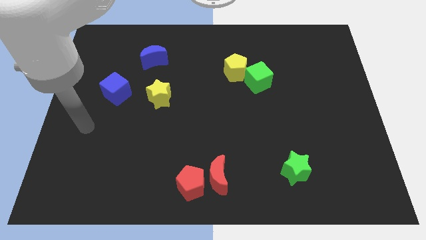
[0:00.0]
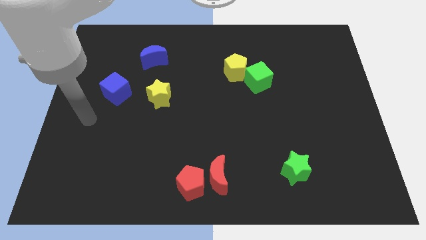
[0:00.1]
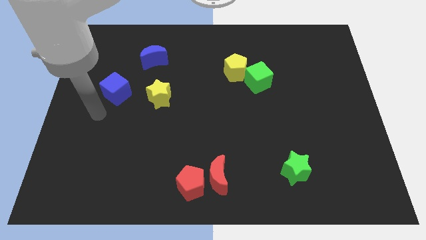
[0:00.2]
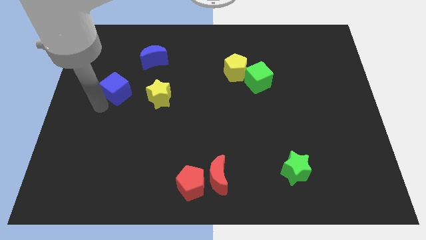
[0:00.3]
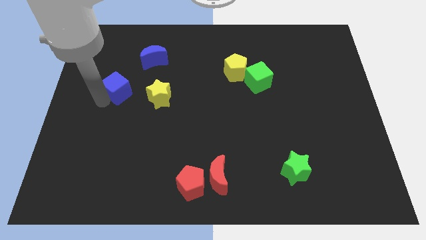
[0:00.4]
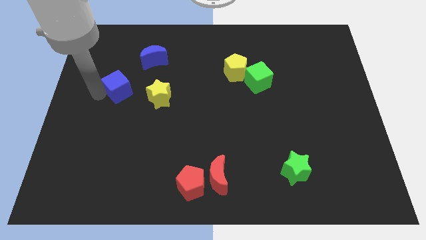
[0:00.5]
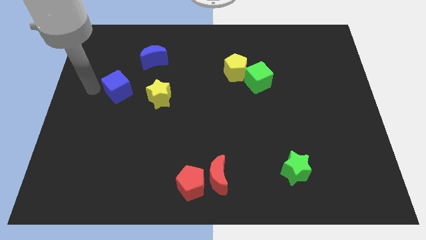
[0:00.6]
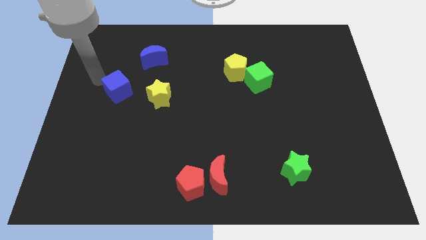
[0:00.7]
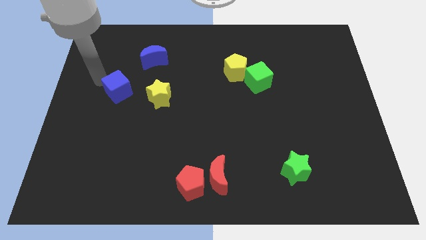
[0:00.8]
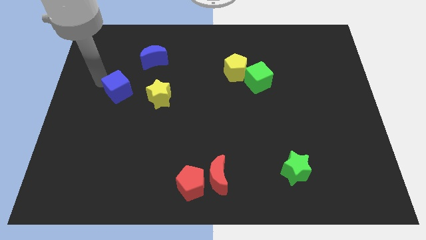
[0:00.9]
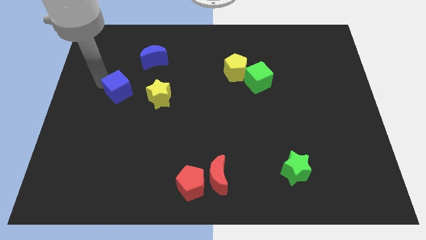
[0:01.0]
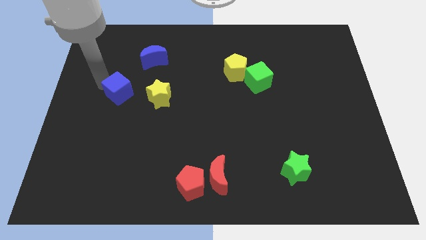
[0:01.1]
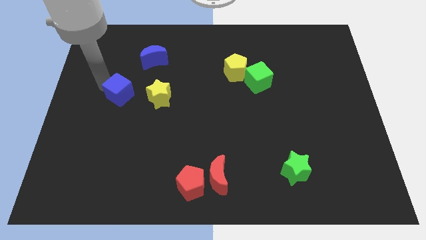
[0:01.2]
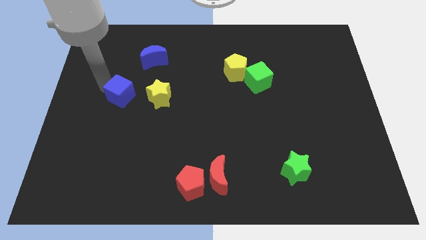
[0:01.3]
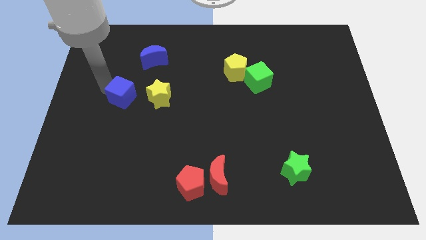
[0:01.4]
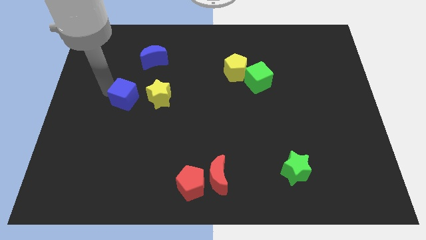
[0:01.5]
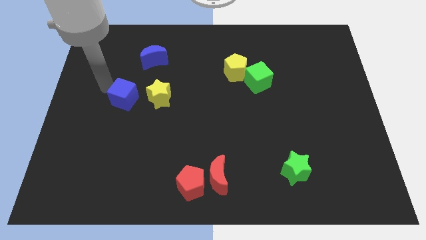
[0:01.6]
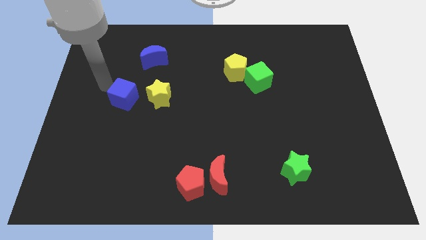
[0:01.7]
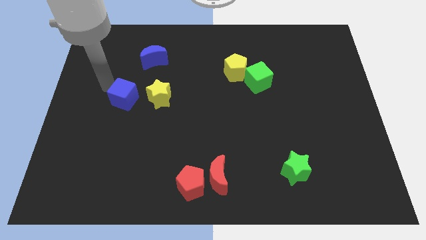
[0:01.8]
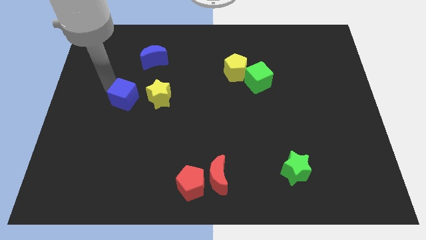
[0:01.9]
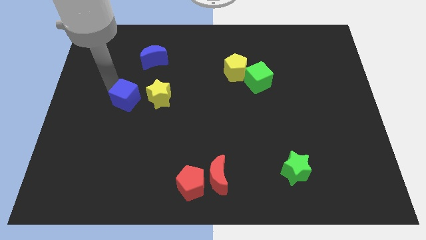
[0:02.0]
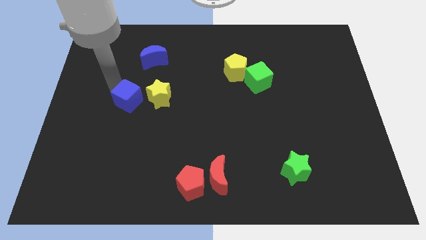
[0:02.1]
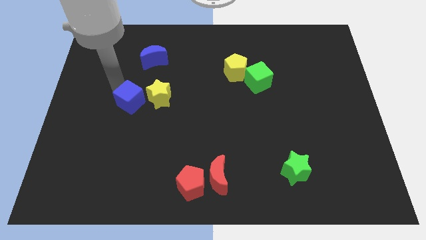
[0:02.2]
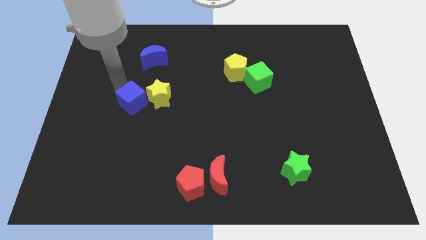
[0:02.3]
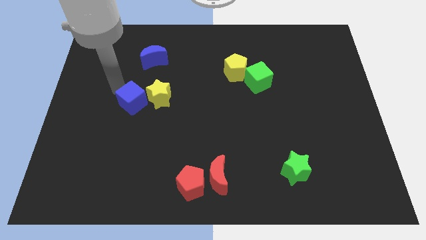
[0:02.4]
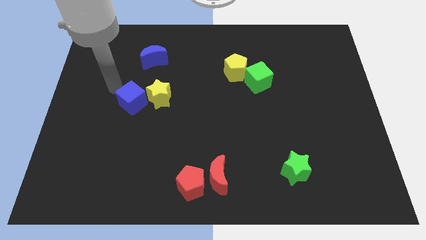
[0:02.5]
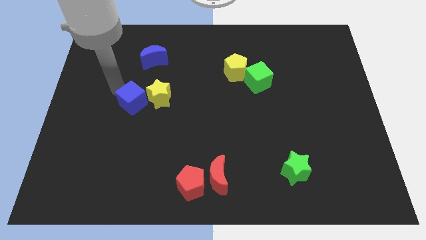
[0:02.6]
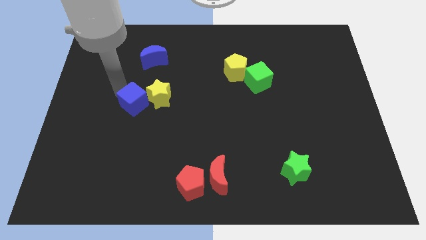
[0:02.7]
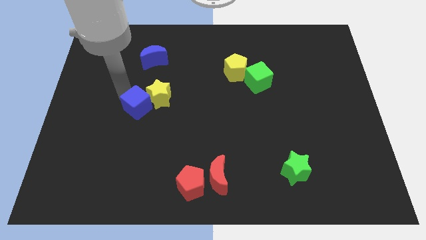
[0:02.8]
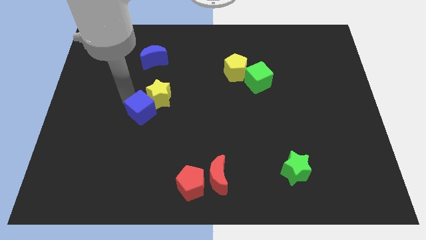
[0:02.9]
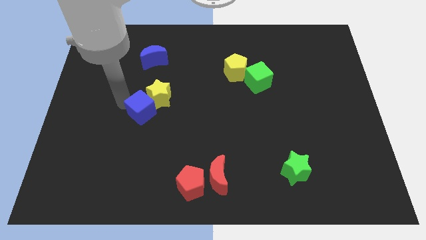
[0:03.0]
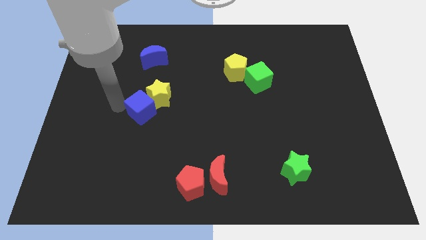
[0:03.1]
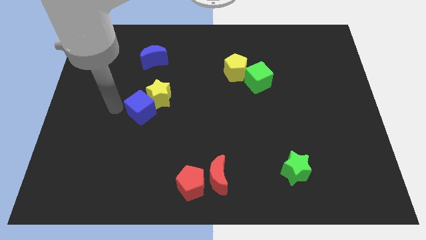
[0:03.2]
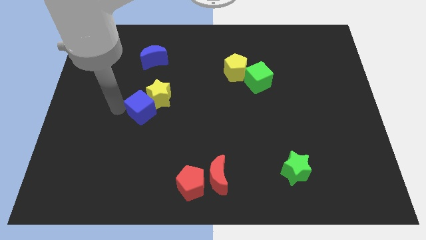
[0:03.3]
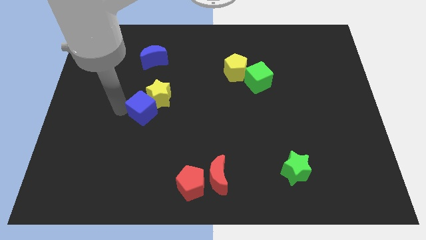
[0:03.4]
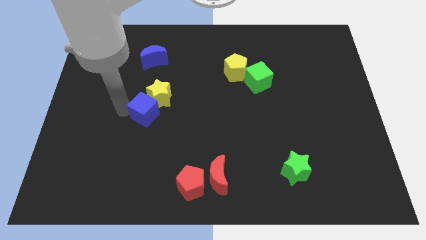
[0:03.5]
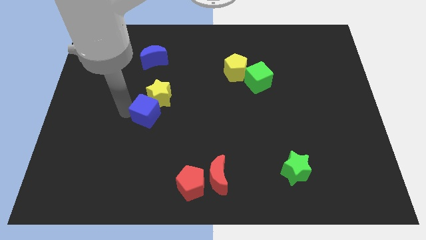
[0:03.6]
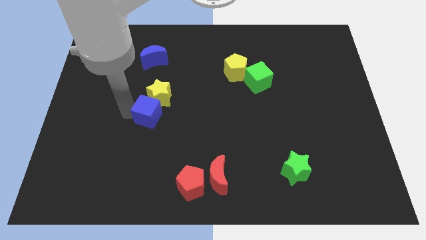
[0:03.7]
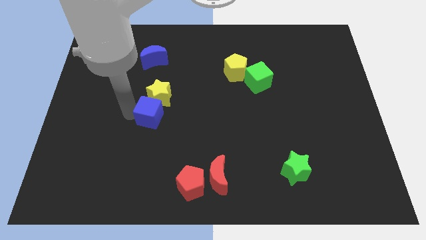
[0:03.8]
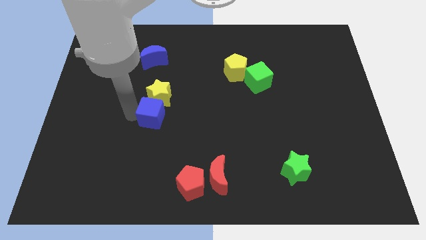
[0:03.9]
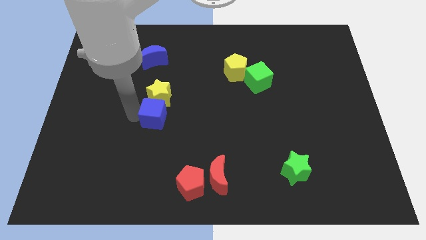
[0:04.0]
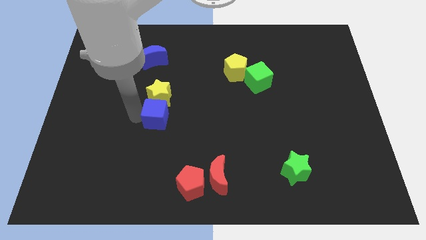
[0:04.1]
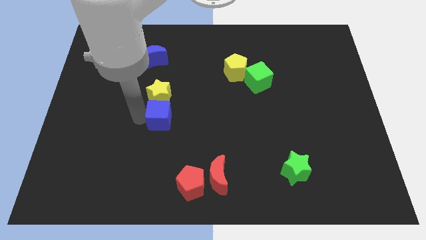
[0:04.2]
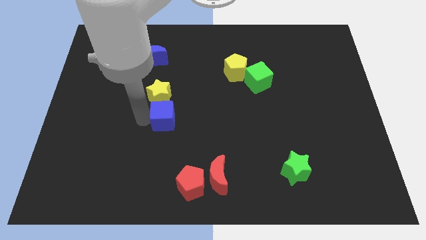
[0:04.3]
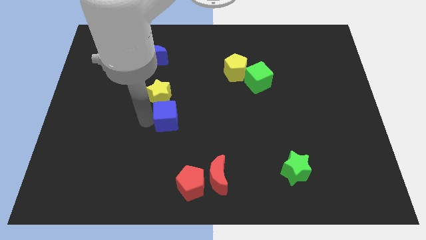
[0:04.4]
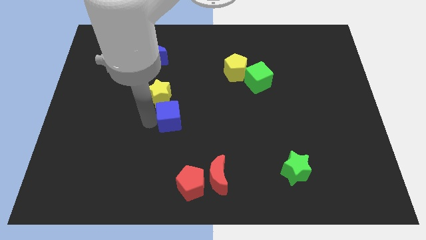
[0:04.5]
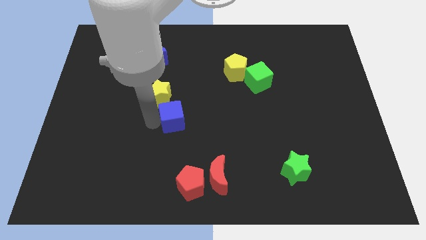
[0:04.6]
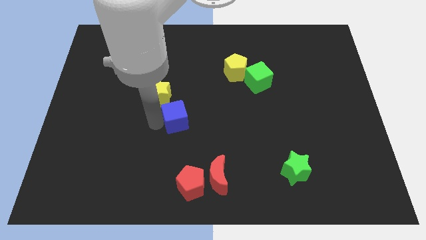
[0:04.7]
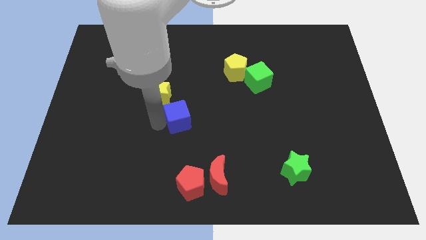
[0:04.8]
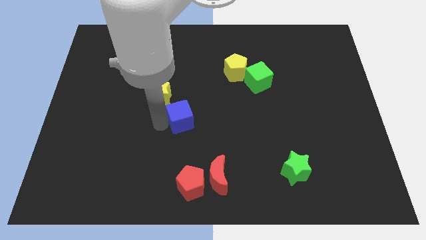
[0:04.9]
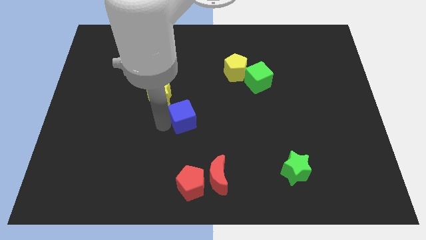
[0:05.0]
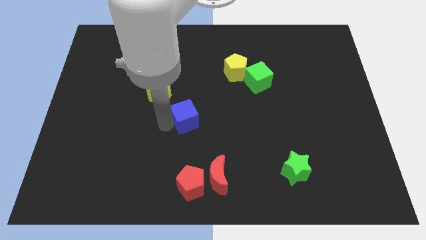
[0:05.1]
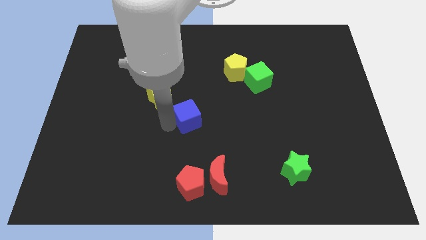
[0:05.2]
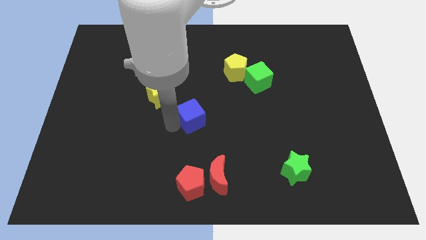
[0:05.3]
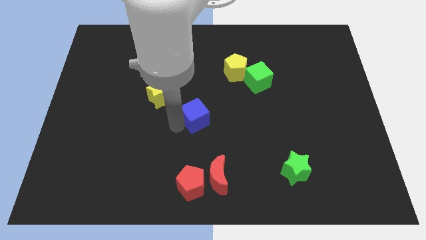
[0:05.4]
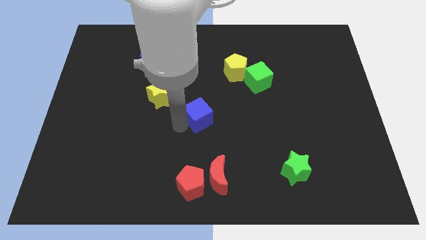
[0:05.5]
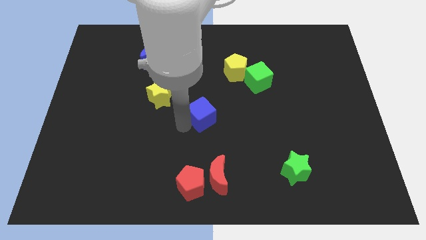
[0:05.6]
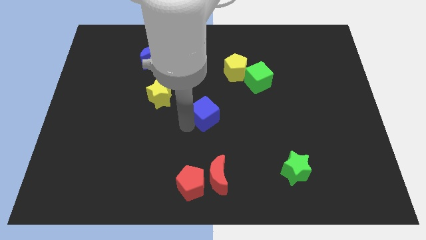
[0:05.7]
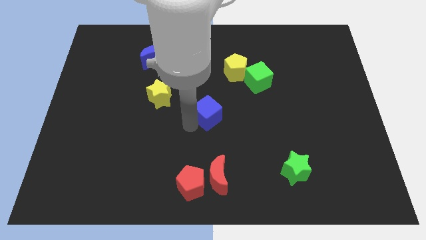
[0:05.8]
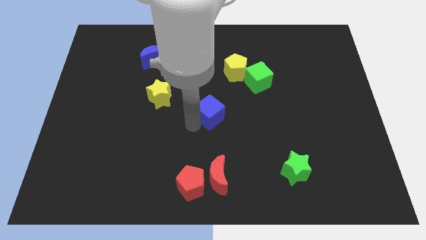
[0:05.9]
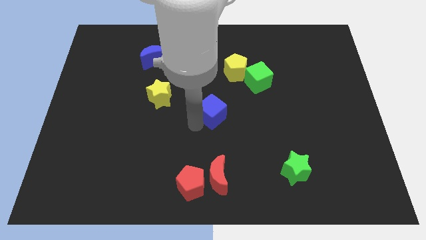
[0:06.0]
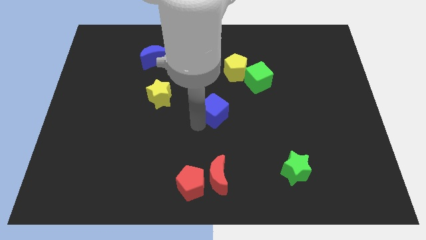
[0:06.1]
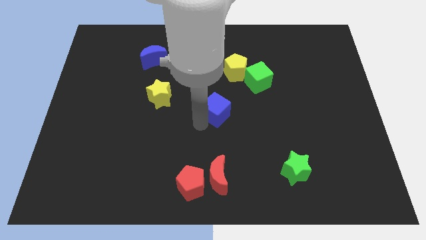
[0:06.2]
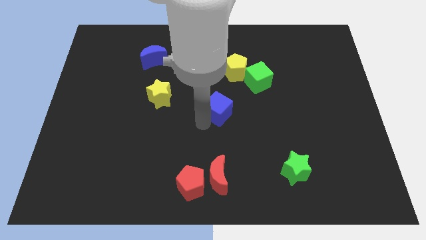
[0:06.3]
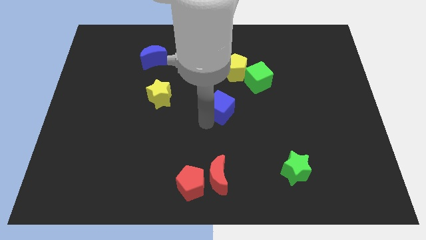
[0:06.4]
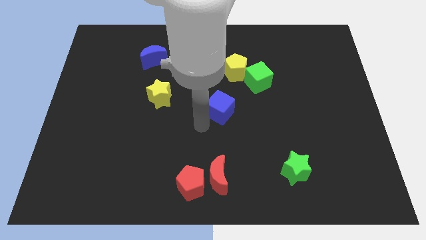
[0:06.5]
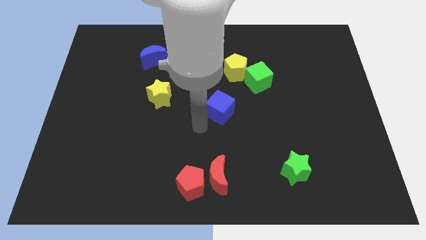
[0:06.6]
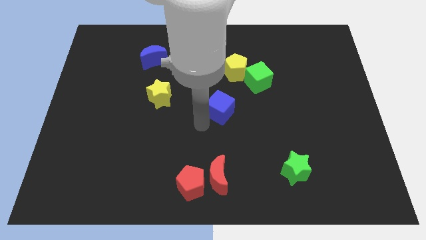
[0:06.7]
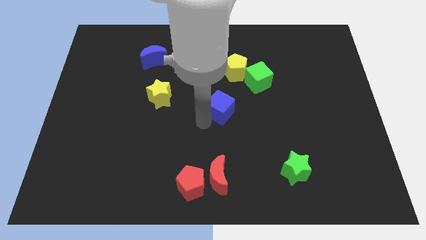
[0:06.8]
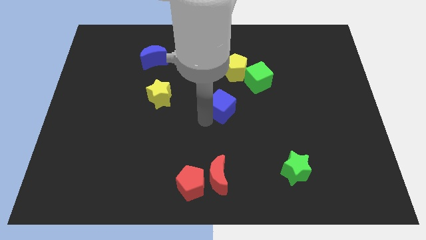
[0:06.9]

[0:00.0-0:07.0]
move the blue cube diagonally down and to the left of the green cube
